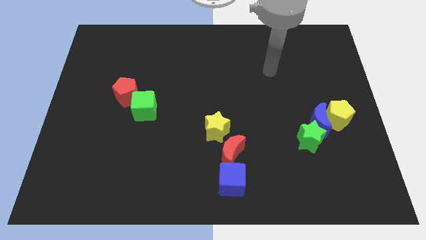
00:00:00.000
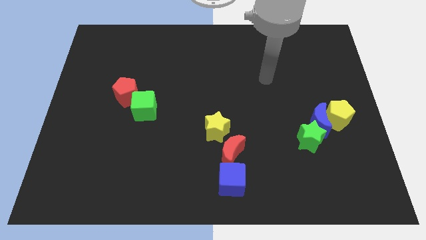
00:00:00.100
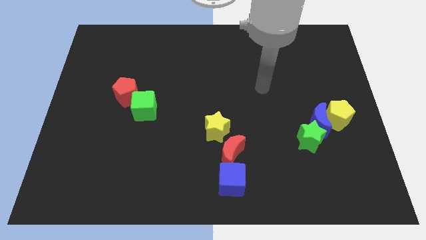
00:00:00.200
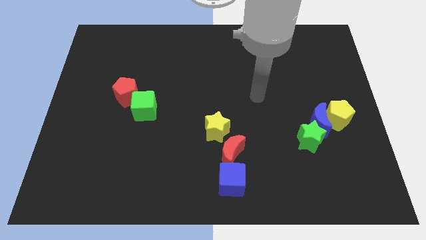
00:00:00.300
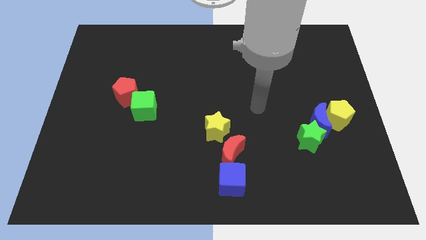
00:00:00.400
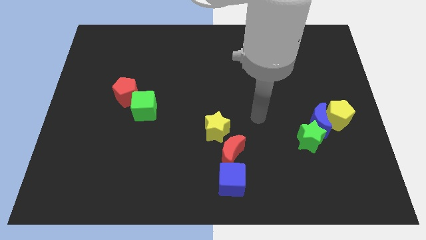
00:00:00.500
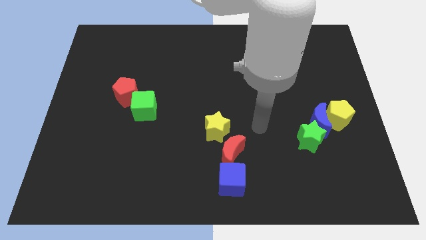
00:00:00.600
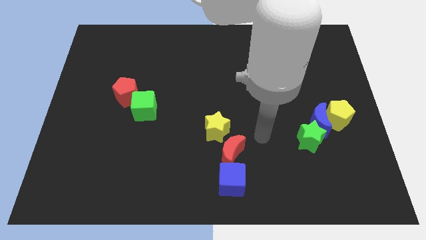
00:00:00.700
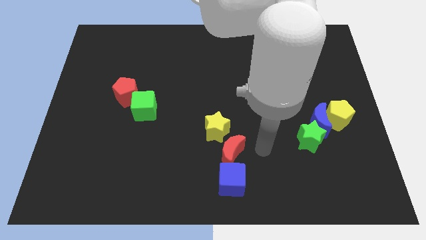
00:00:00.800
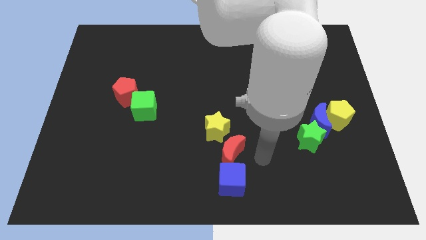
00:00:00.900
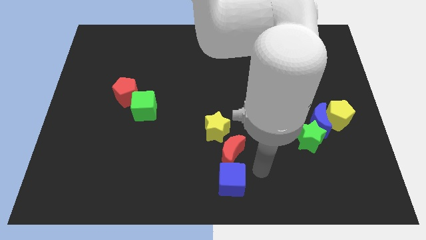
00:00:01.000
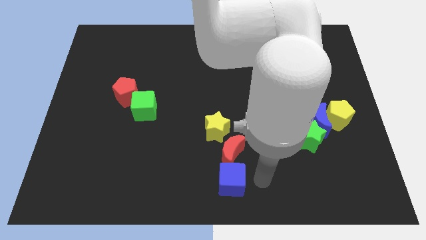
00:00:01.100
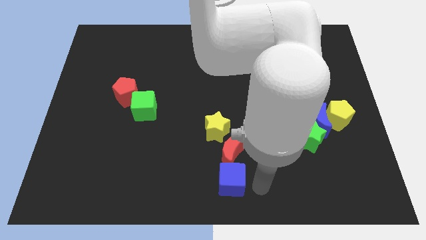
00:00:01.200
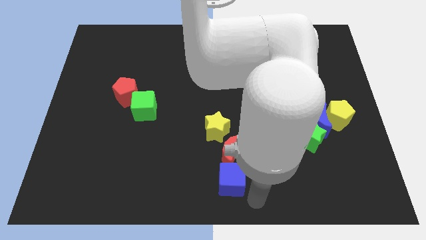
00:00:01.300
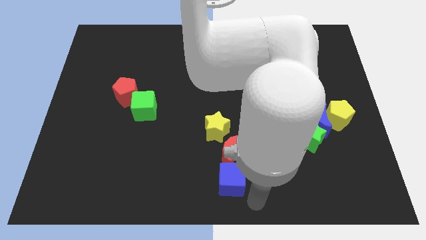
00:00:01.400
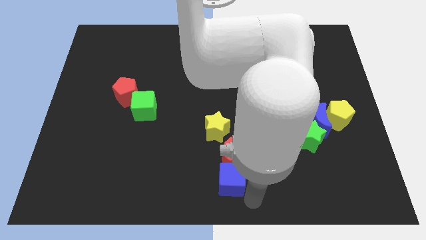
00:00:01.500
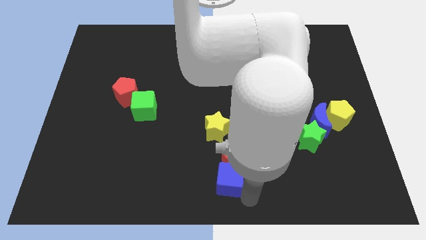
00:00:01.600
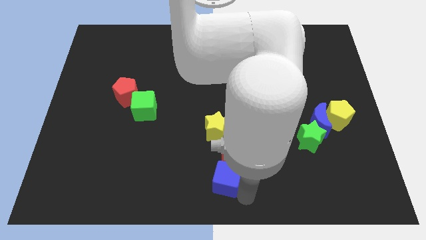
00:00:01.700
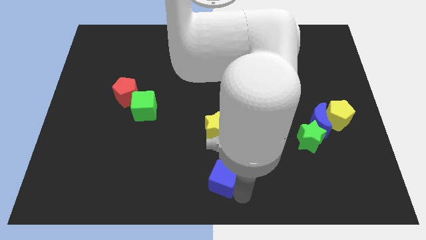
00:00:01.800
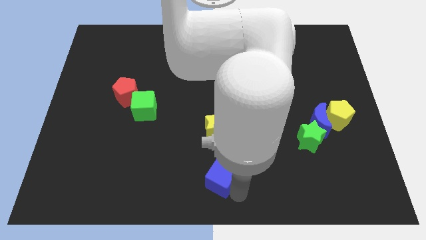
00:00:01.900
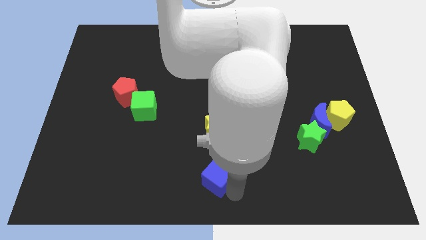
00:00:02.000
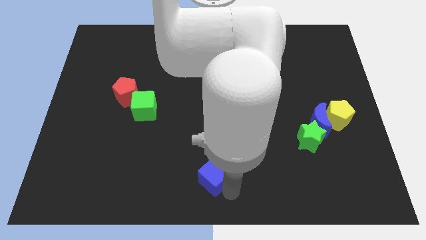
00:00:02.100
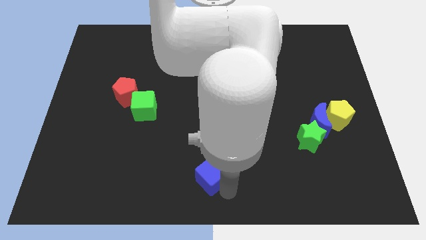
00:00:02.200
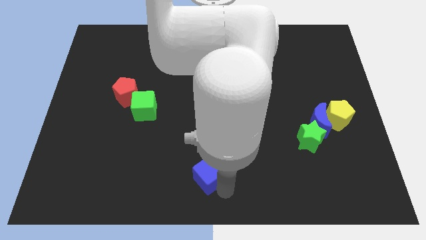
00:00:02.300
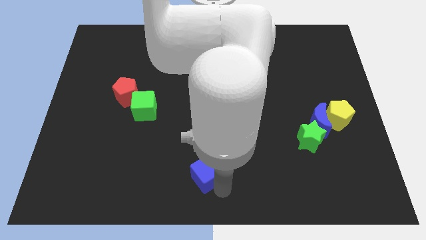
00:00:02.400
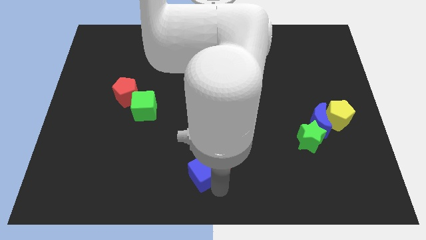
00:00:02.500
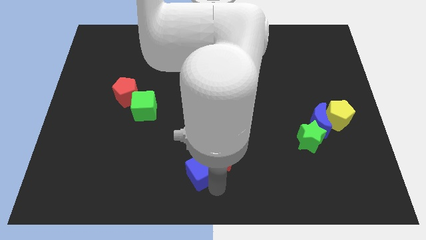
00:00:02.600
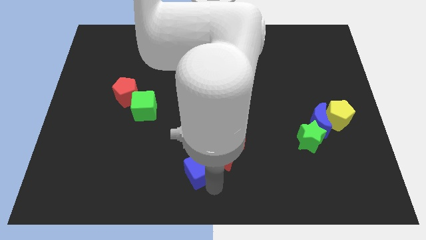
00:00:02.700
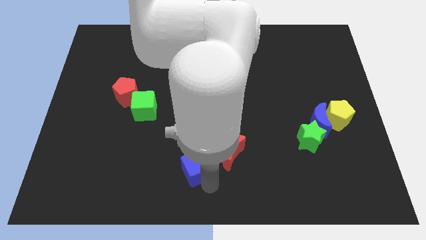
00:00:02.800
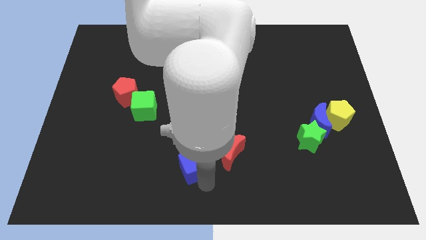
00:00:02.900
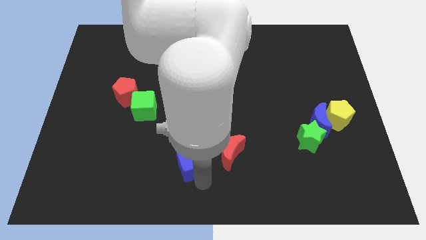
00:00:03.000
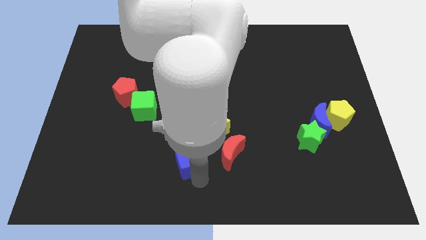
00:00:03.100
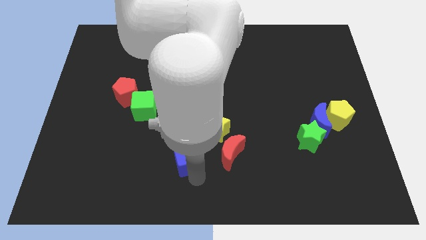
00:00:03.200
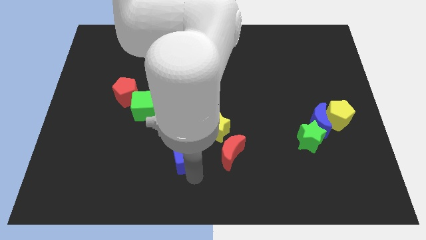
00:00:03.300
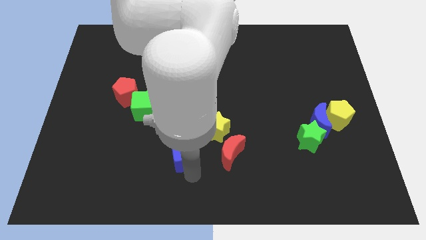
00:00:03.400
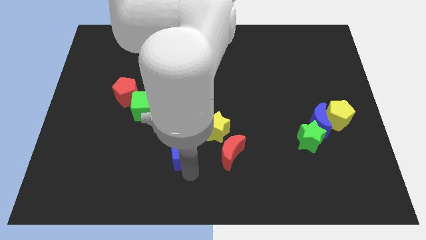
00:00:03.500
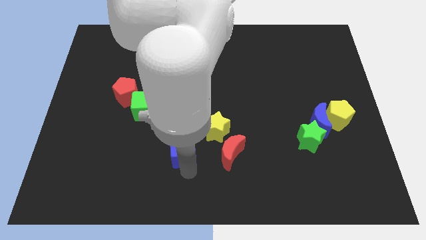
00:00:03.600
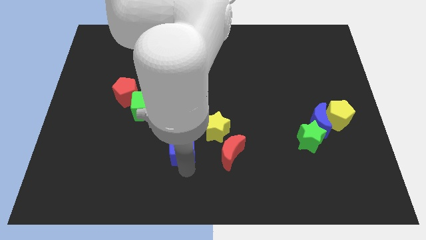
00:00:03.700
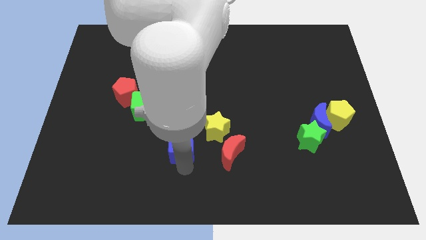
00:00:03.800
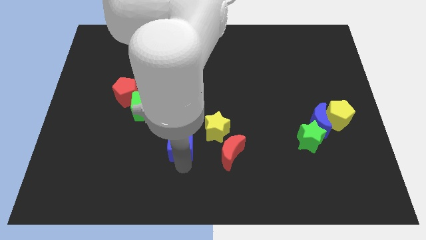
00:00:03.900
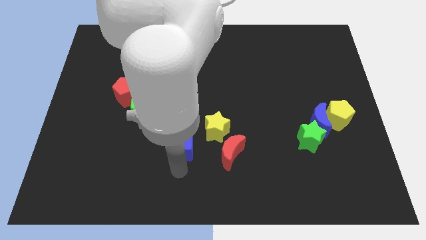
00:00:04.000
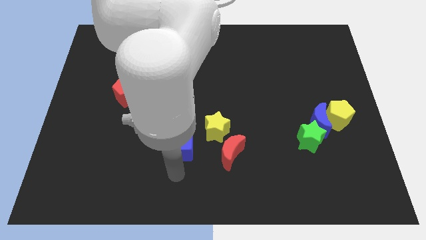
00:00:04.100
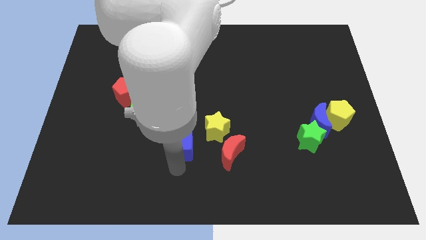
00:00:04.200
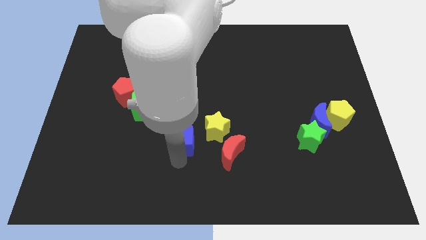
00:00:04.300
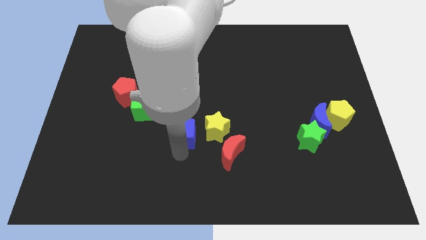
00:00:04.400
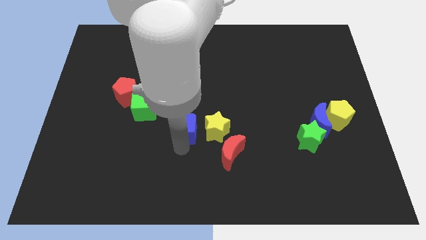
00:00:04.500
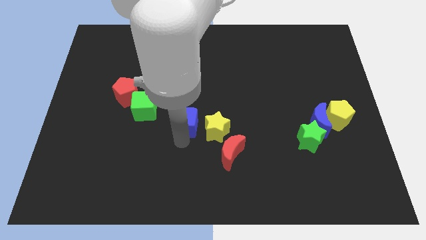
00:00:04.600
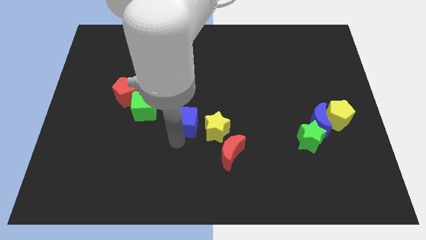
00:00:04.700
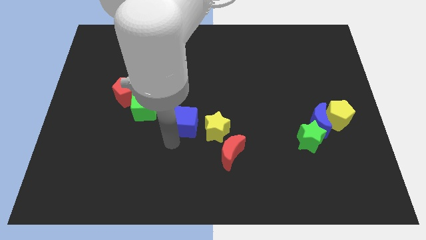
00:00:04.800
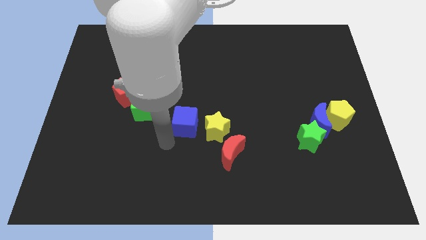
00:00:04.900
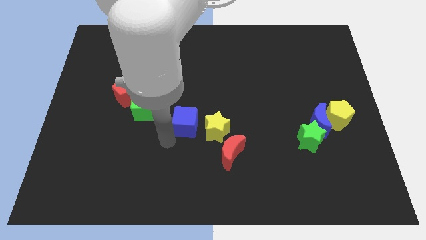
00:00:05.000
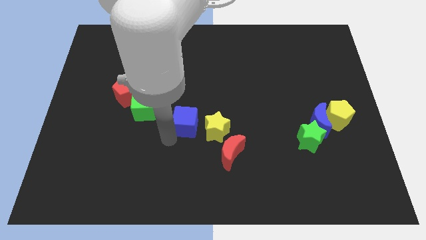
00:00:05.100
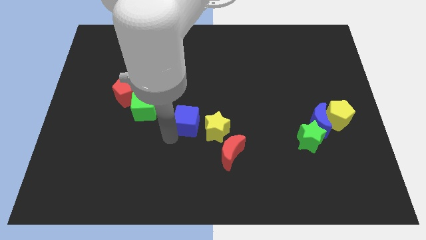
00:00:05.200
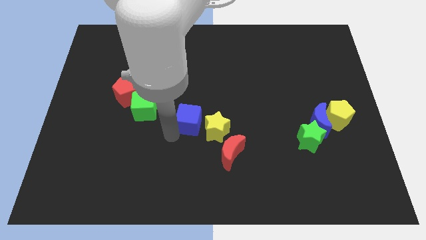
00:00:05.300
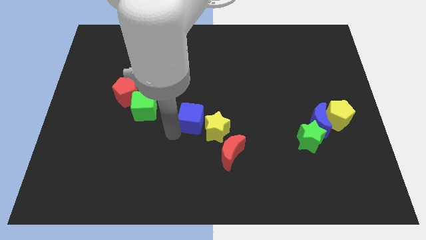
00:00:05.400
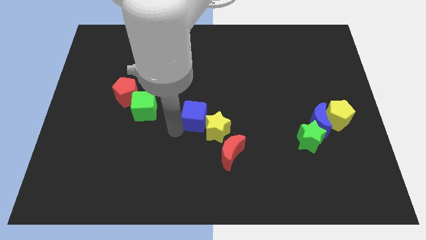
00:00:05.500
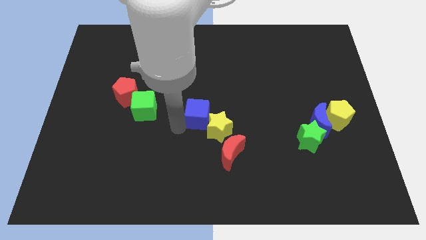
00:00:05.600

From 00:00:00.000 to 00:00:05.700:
slide the blue cube above the yellow star
